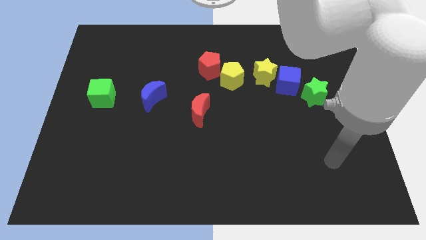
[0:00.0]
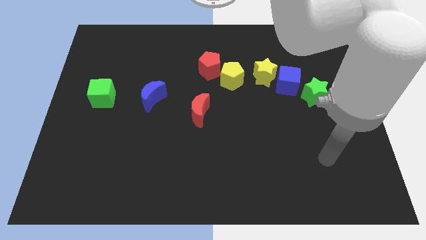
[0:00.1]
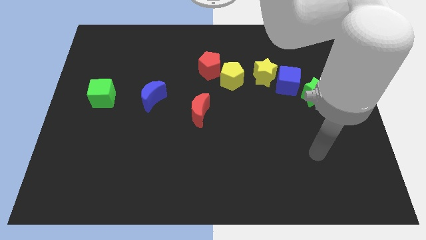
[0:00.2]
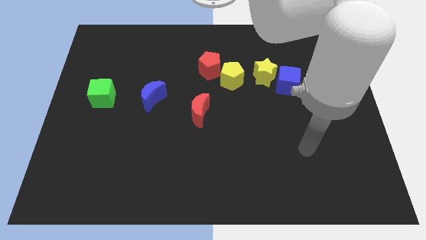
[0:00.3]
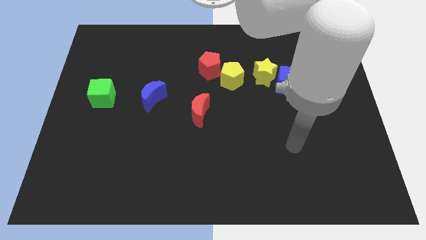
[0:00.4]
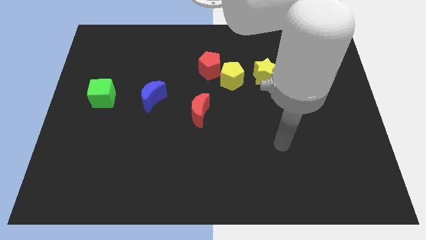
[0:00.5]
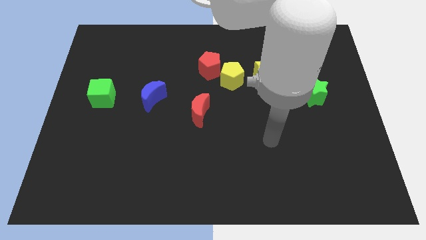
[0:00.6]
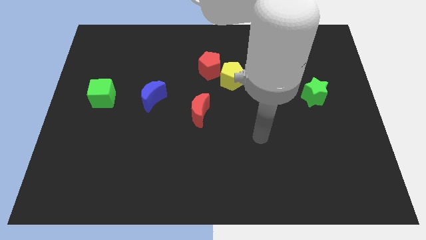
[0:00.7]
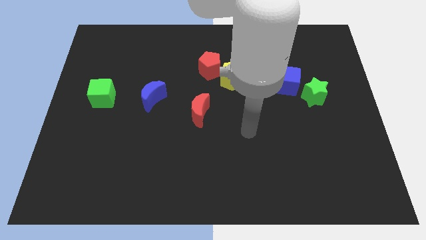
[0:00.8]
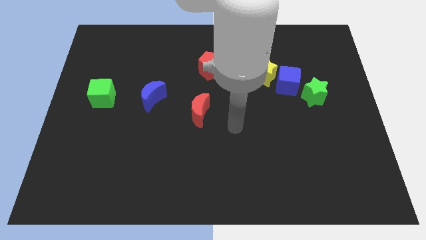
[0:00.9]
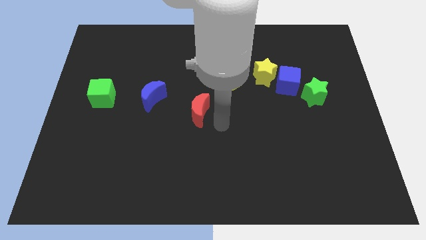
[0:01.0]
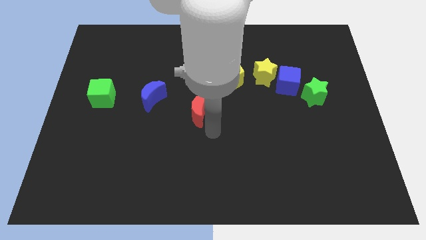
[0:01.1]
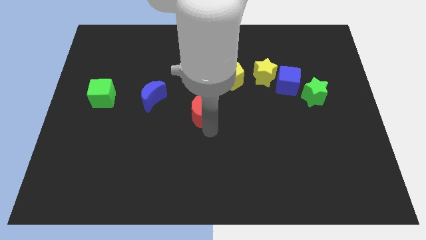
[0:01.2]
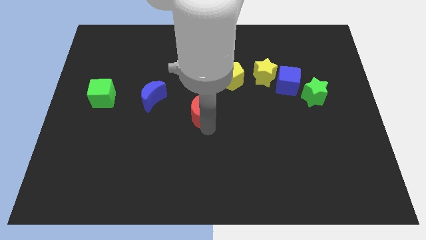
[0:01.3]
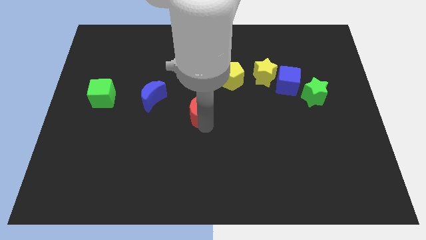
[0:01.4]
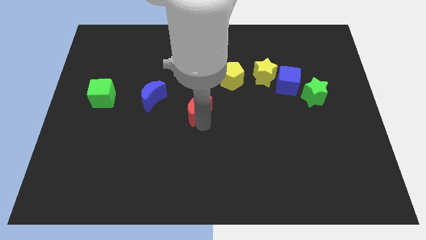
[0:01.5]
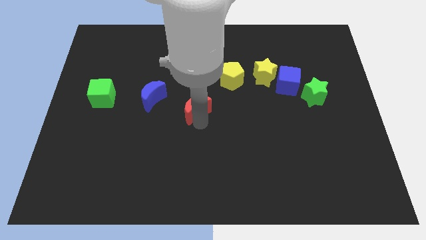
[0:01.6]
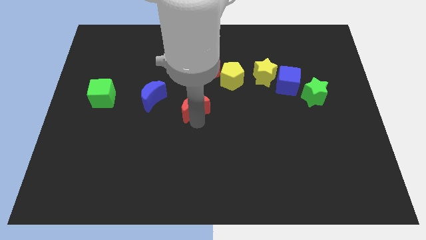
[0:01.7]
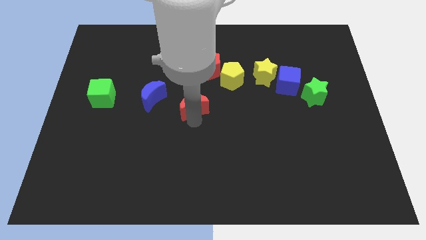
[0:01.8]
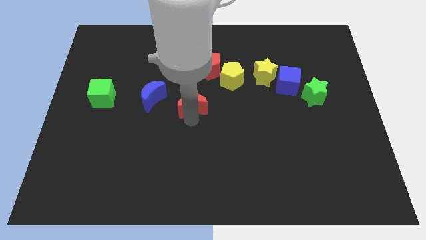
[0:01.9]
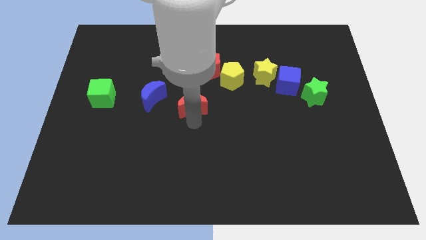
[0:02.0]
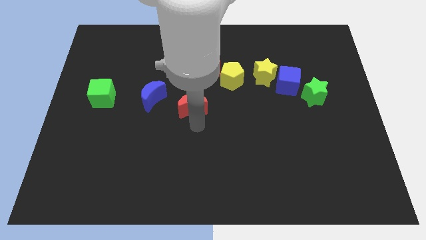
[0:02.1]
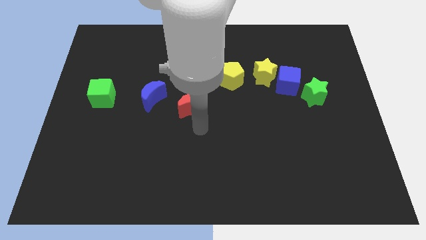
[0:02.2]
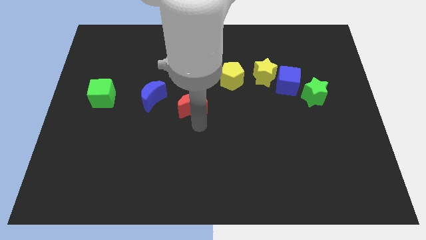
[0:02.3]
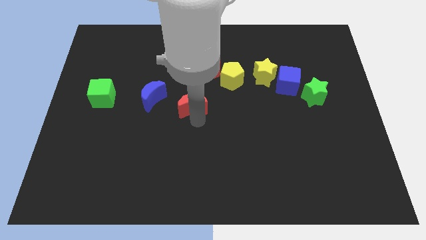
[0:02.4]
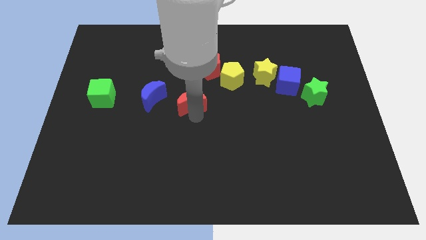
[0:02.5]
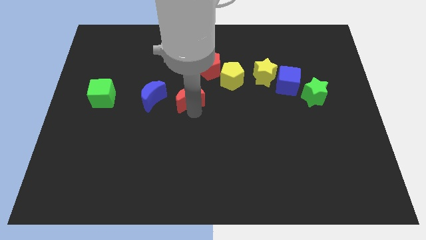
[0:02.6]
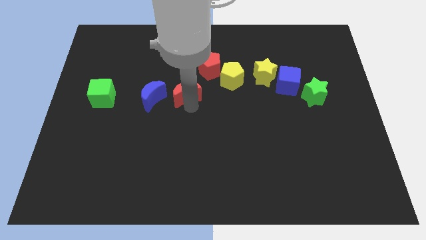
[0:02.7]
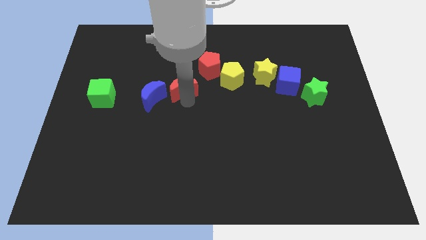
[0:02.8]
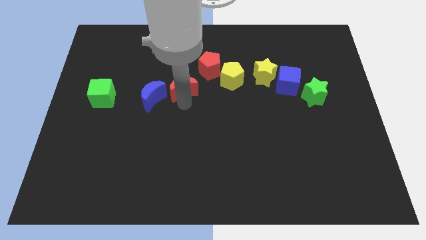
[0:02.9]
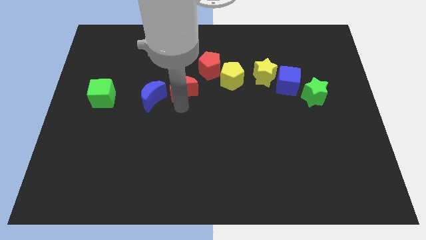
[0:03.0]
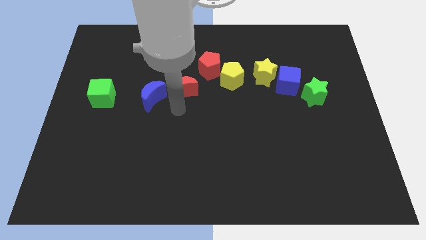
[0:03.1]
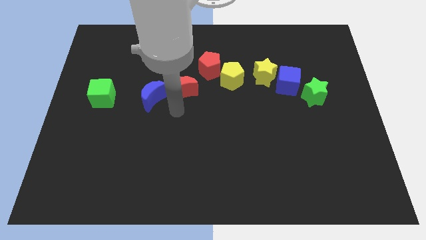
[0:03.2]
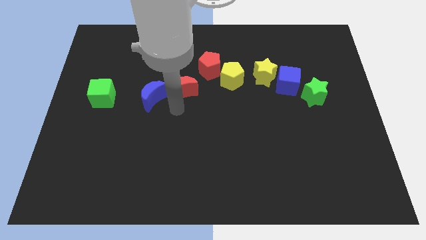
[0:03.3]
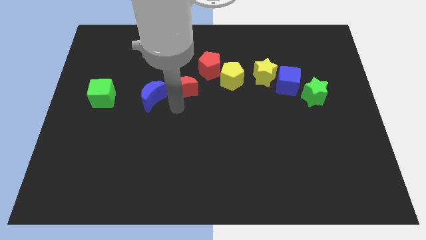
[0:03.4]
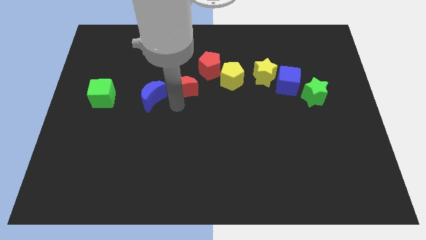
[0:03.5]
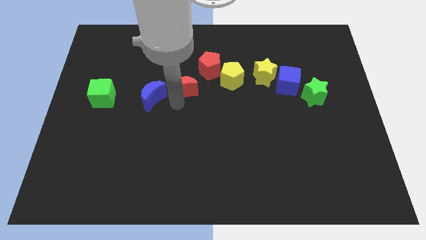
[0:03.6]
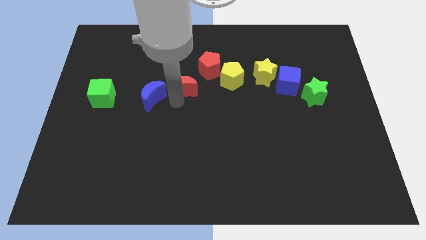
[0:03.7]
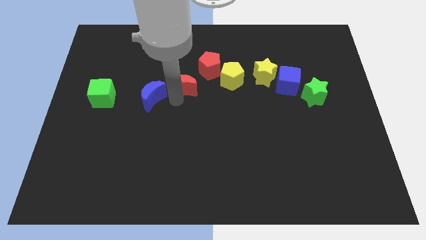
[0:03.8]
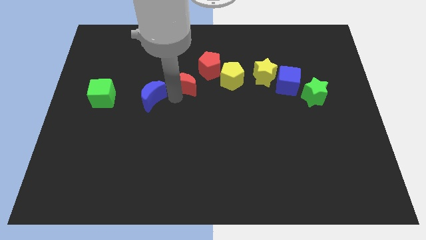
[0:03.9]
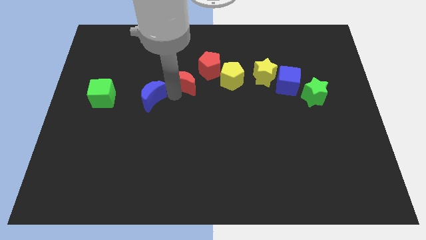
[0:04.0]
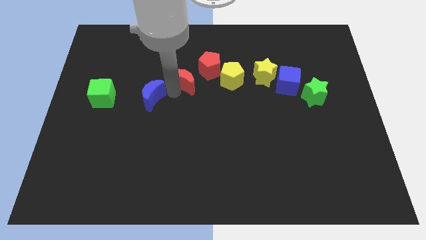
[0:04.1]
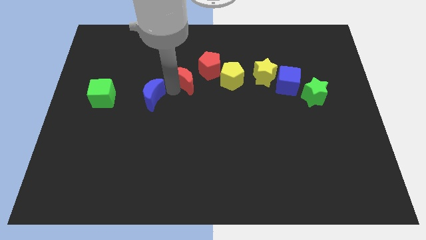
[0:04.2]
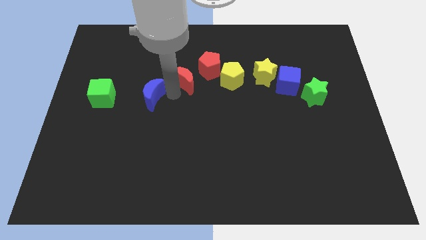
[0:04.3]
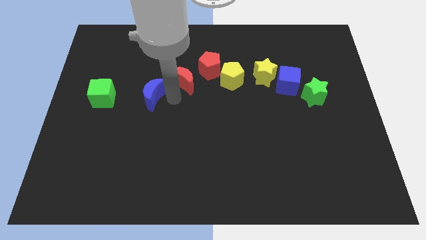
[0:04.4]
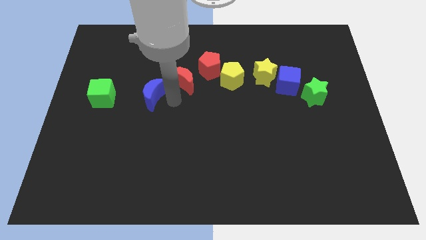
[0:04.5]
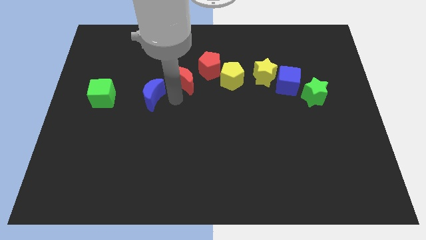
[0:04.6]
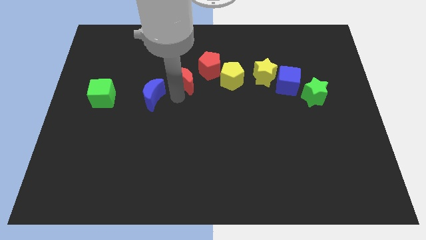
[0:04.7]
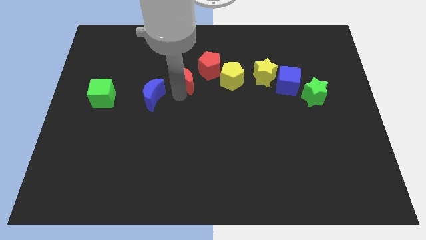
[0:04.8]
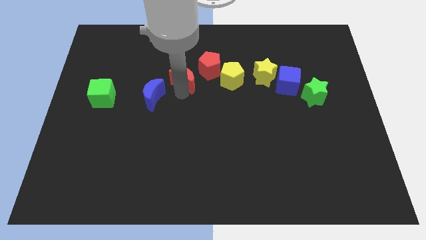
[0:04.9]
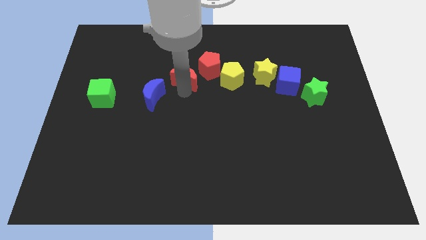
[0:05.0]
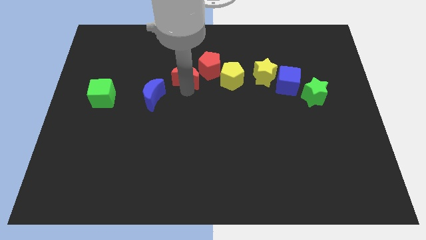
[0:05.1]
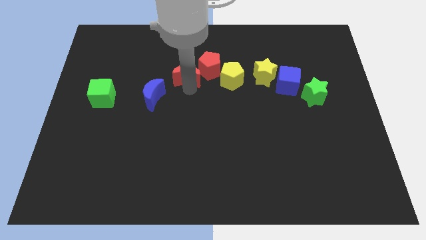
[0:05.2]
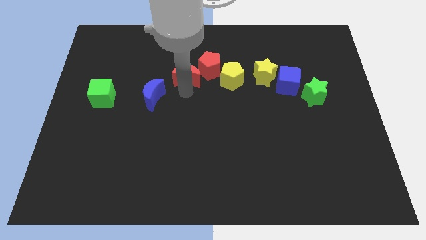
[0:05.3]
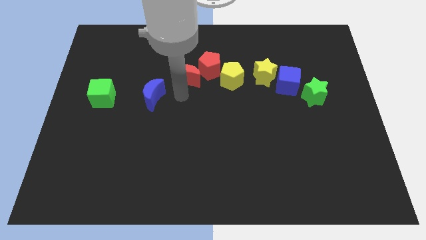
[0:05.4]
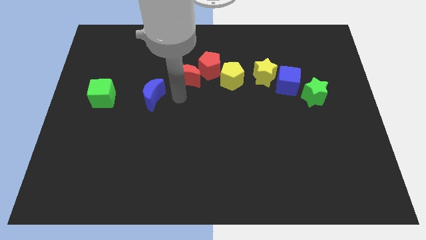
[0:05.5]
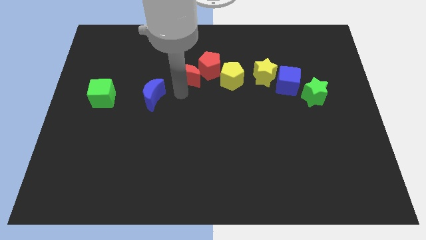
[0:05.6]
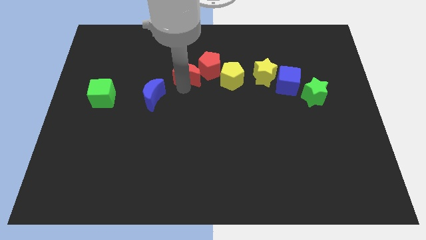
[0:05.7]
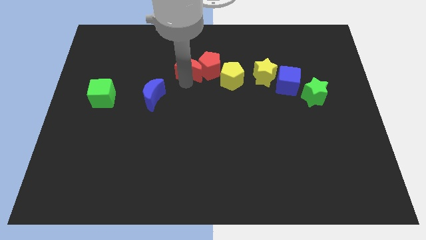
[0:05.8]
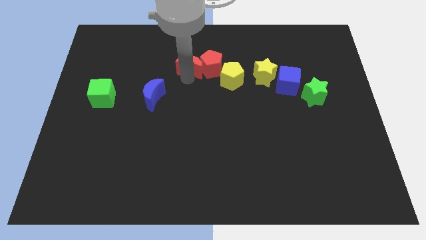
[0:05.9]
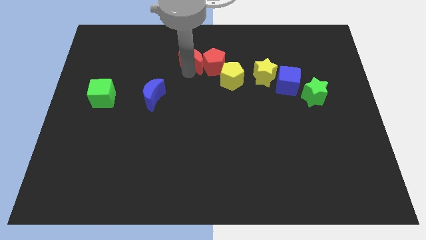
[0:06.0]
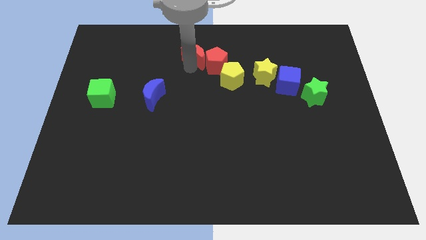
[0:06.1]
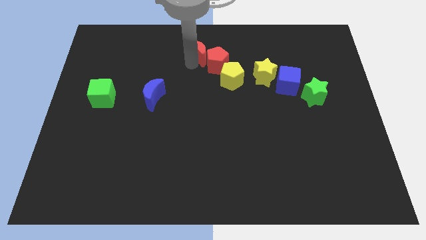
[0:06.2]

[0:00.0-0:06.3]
push the red moon to the towards your base
